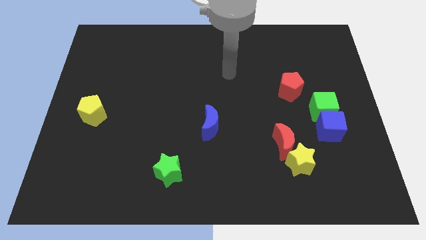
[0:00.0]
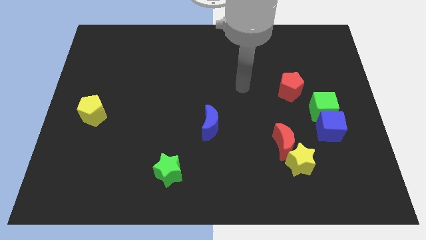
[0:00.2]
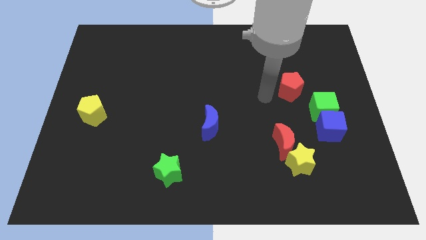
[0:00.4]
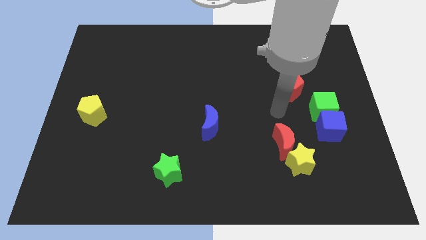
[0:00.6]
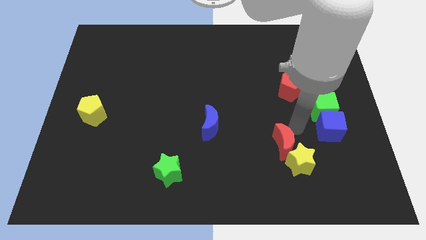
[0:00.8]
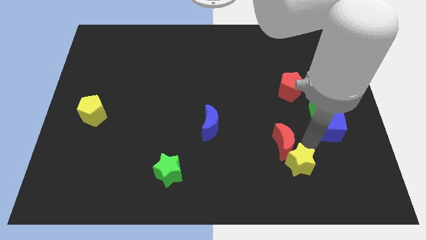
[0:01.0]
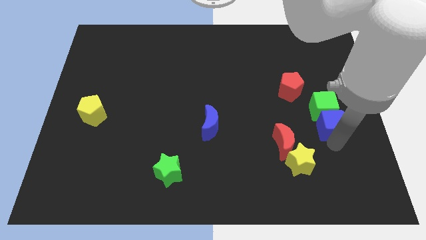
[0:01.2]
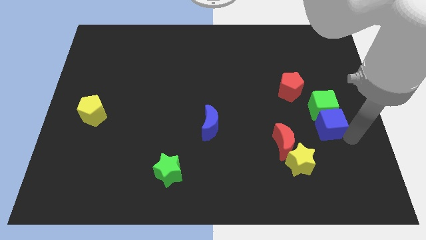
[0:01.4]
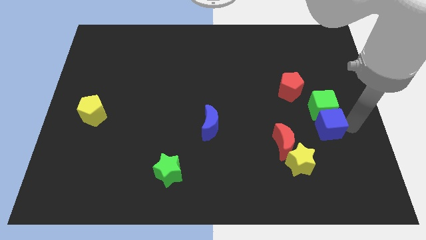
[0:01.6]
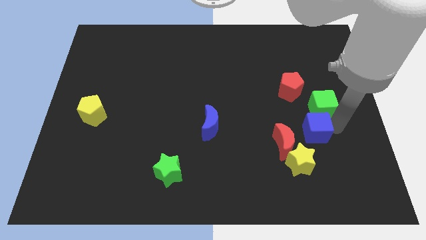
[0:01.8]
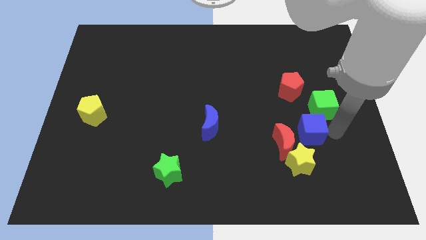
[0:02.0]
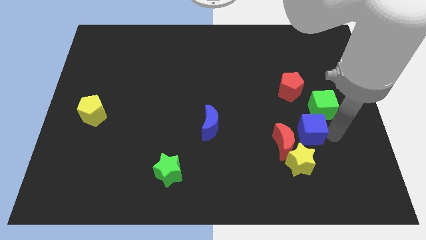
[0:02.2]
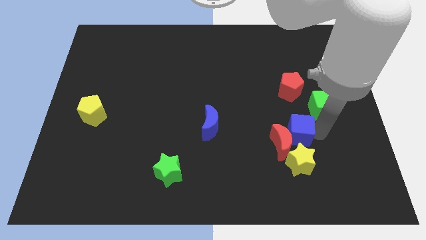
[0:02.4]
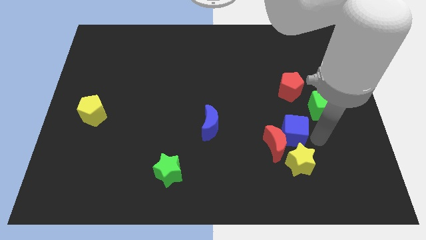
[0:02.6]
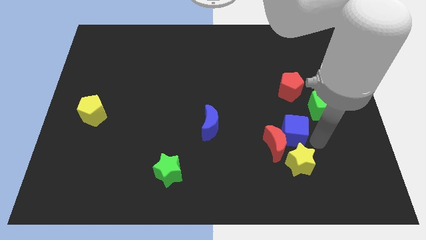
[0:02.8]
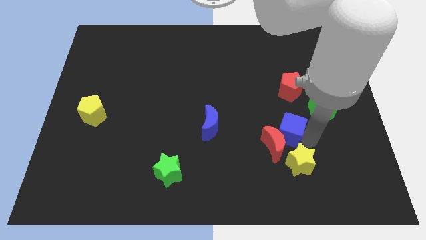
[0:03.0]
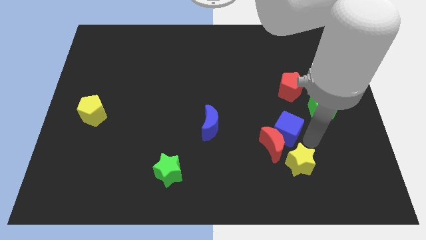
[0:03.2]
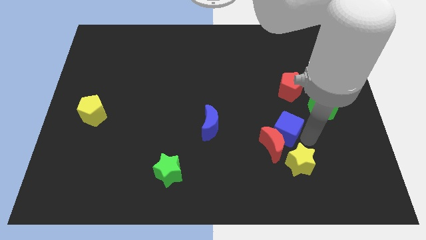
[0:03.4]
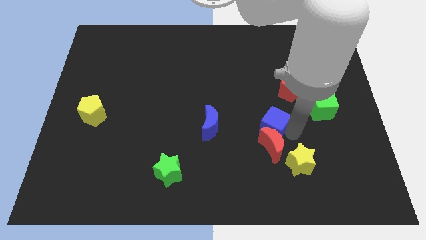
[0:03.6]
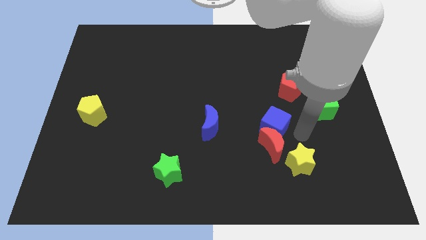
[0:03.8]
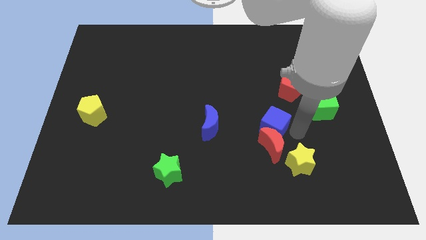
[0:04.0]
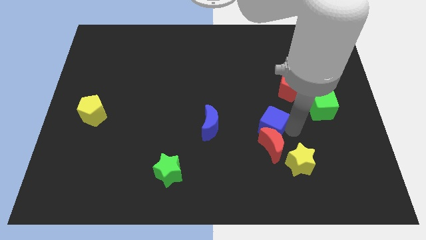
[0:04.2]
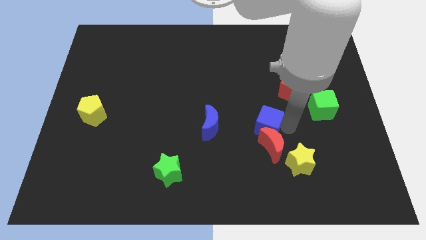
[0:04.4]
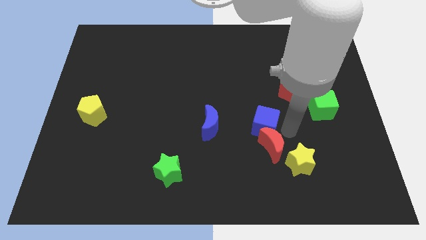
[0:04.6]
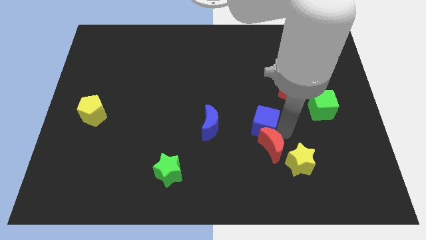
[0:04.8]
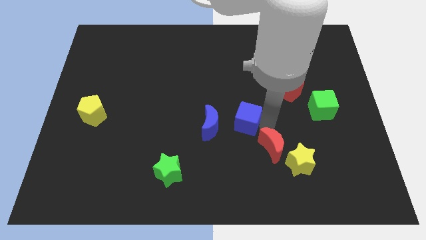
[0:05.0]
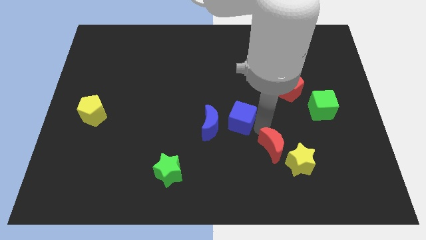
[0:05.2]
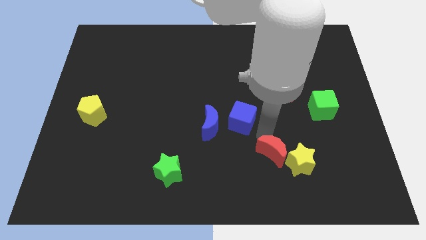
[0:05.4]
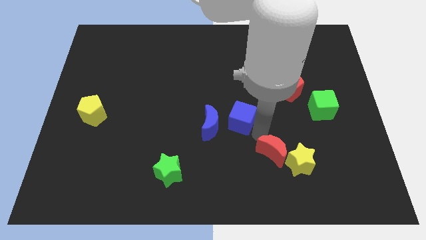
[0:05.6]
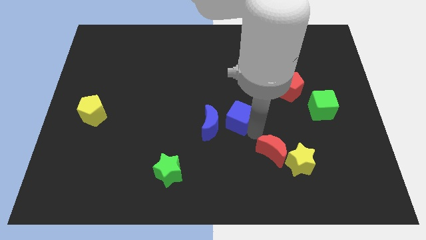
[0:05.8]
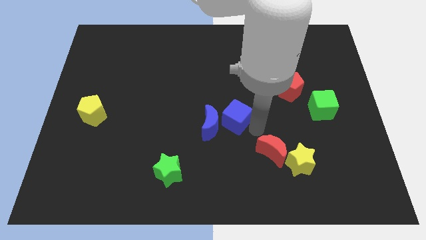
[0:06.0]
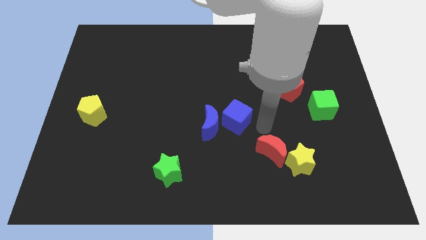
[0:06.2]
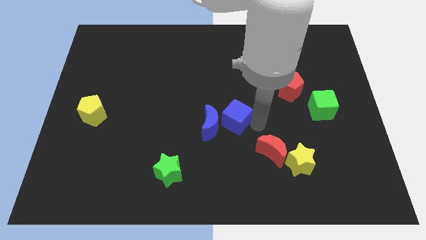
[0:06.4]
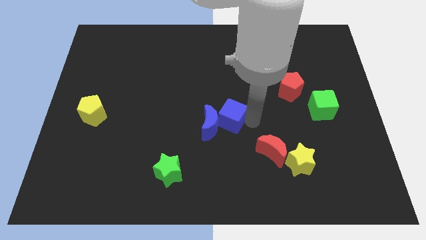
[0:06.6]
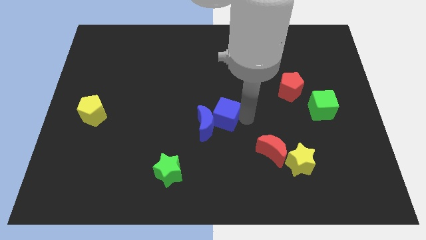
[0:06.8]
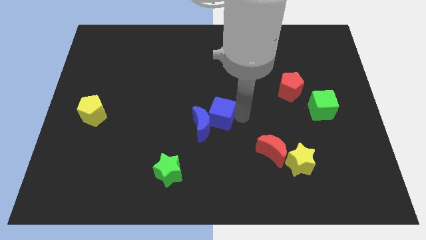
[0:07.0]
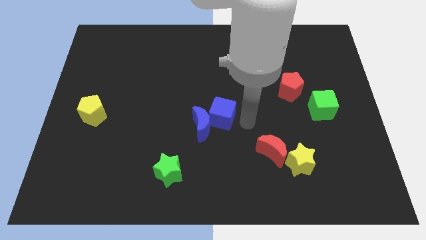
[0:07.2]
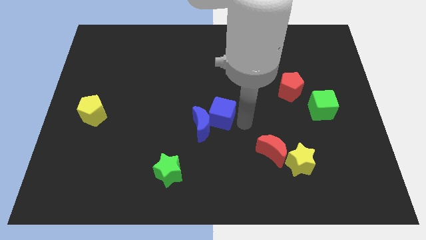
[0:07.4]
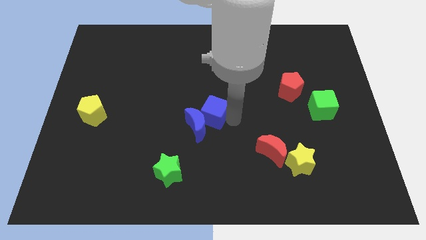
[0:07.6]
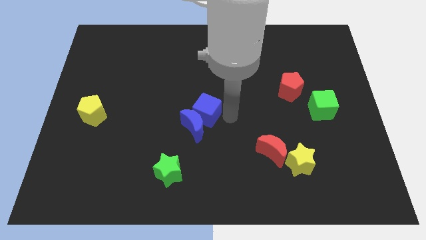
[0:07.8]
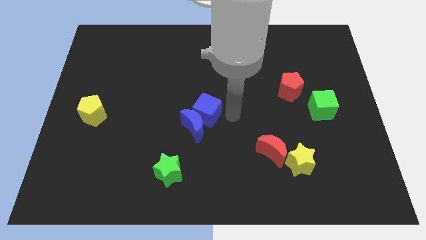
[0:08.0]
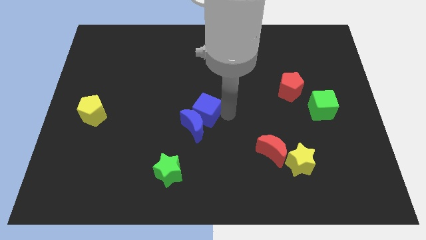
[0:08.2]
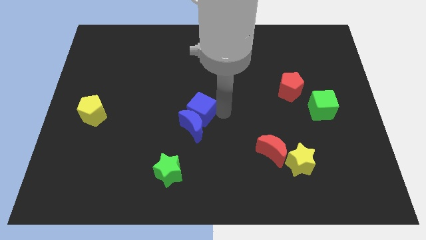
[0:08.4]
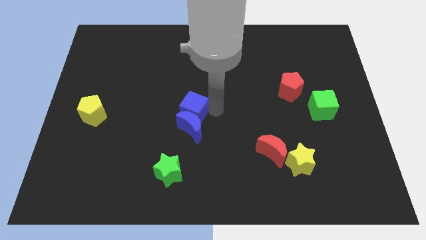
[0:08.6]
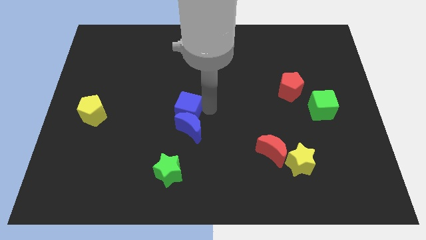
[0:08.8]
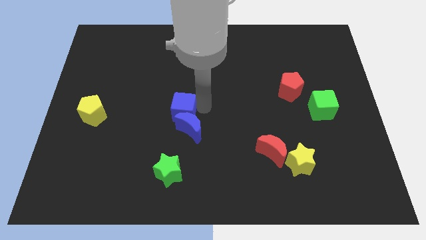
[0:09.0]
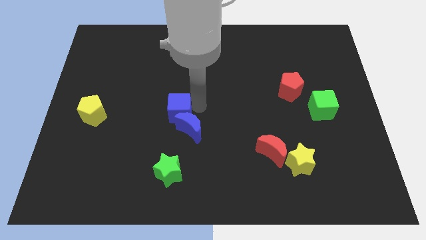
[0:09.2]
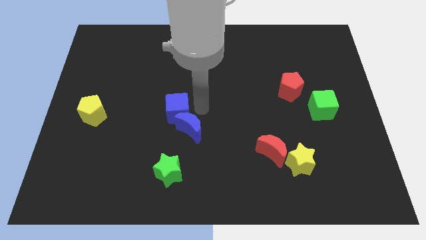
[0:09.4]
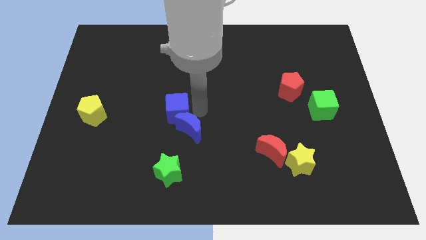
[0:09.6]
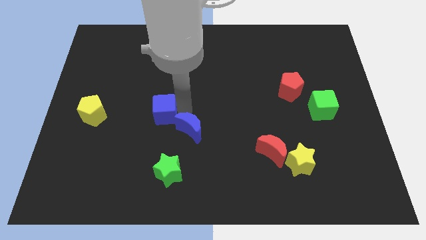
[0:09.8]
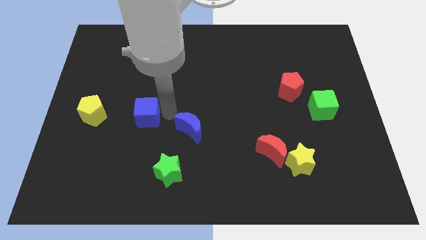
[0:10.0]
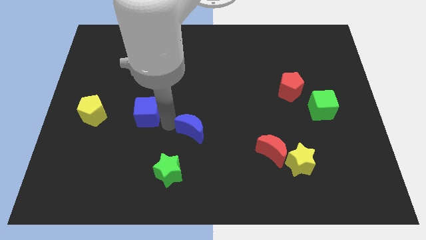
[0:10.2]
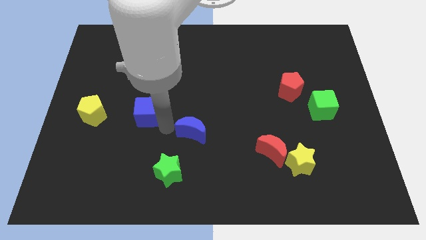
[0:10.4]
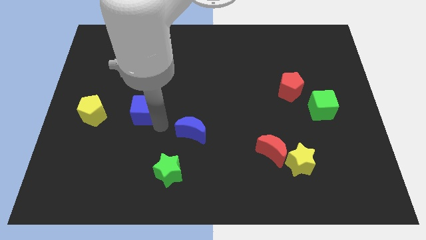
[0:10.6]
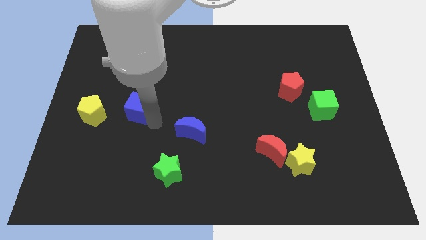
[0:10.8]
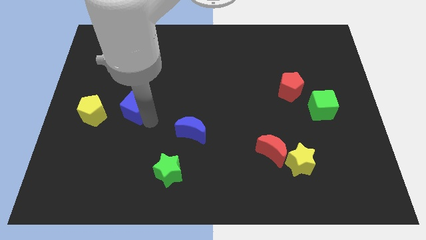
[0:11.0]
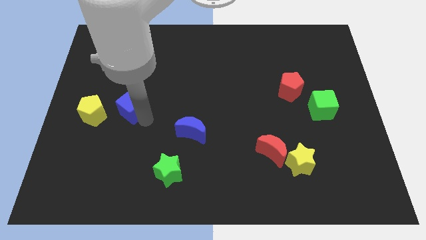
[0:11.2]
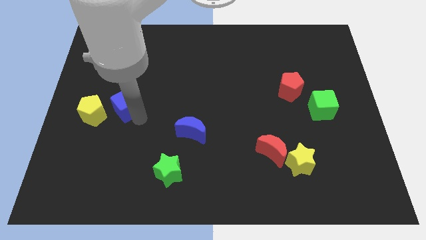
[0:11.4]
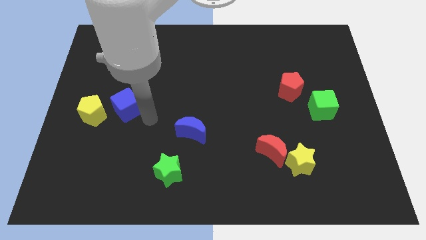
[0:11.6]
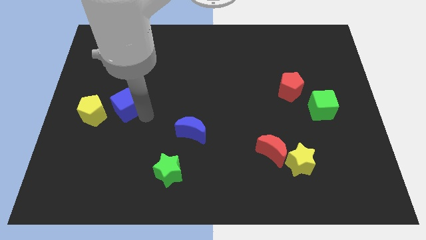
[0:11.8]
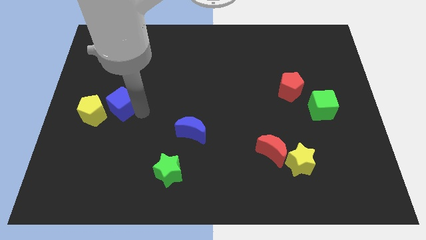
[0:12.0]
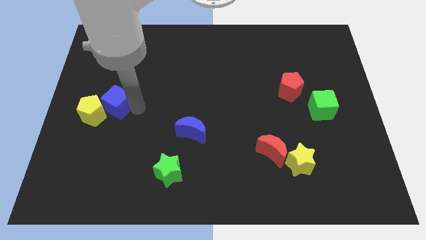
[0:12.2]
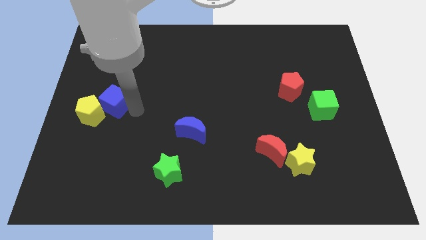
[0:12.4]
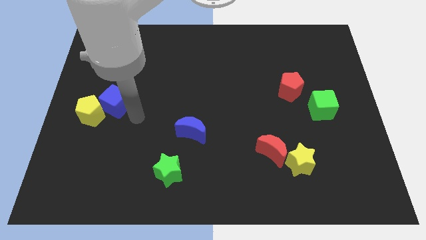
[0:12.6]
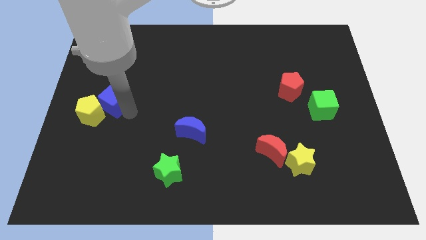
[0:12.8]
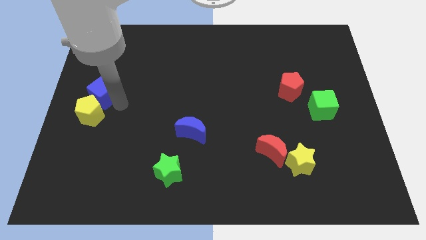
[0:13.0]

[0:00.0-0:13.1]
put the blue cube to the left side of the board
